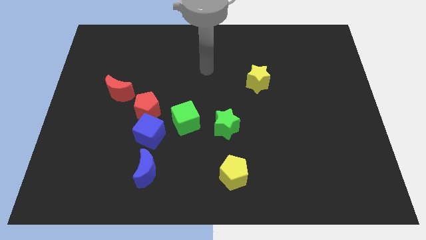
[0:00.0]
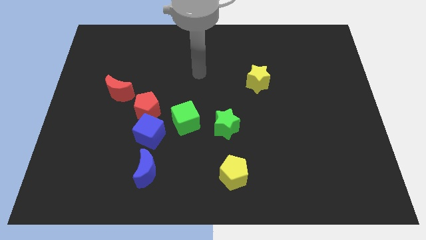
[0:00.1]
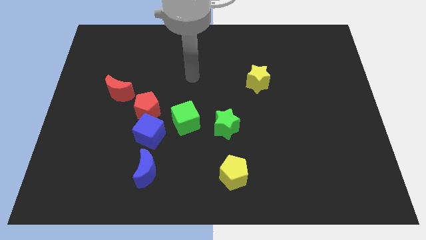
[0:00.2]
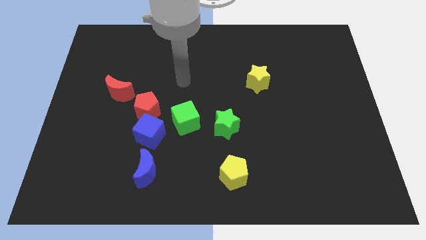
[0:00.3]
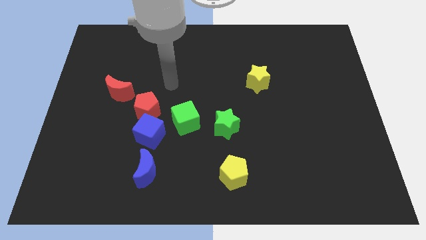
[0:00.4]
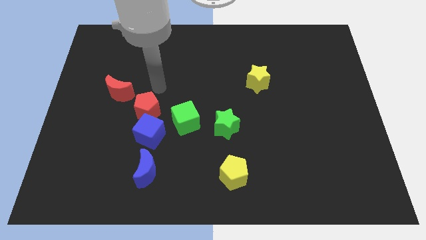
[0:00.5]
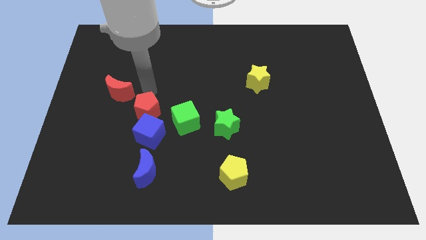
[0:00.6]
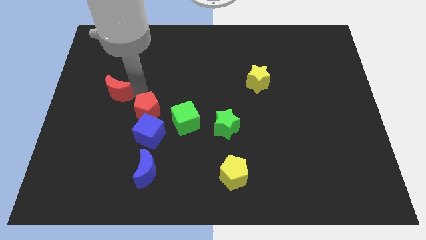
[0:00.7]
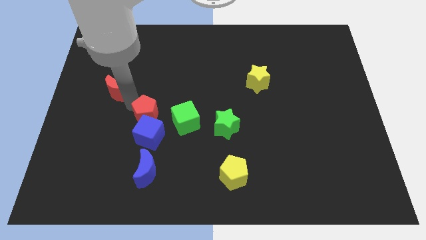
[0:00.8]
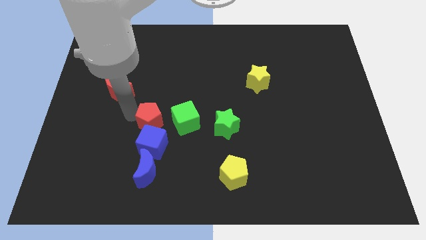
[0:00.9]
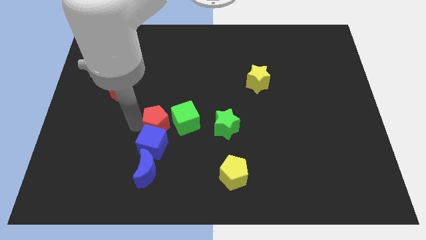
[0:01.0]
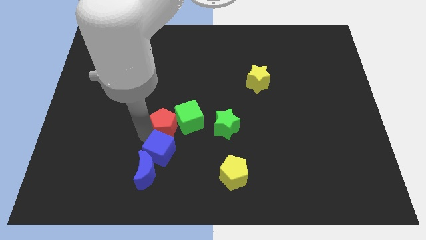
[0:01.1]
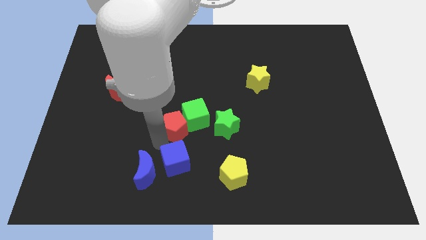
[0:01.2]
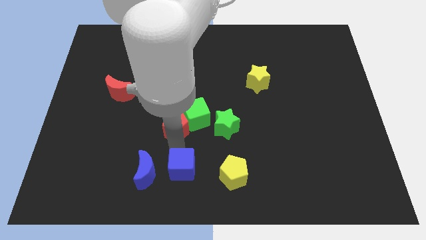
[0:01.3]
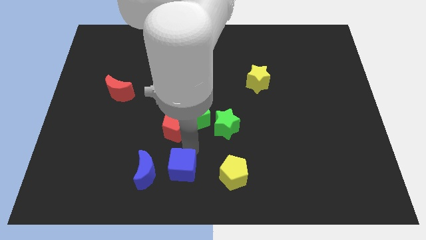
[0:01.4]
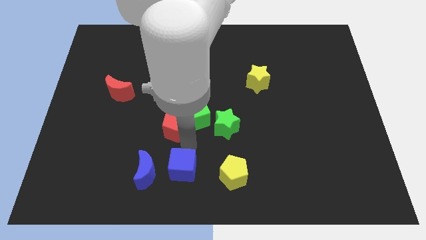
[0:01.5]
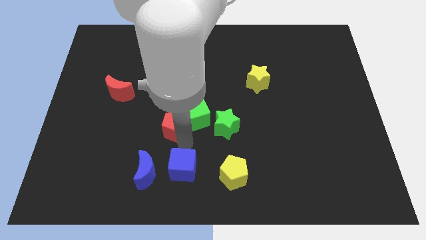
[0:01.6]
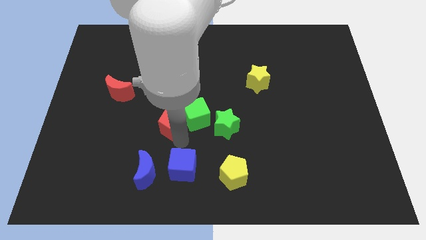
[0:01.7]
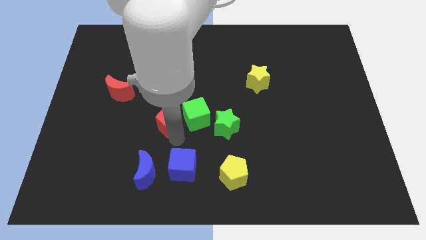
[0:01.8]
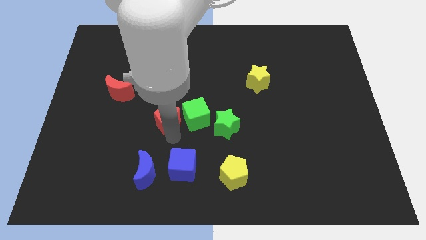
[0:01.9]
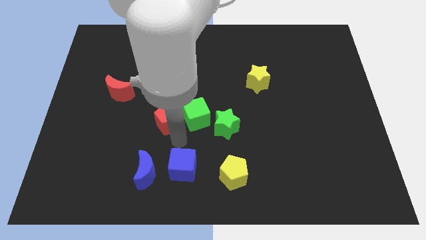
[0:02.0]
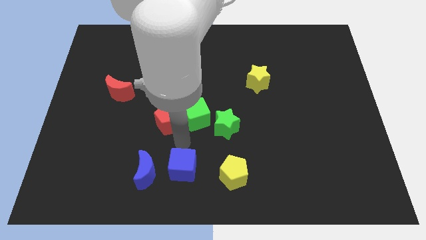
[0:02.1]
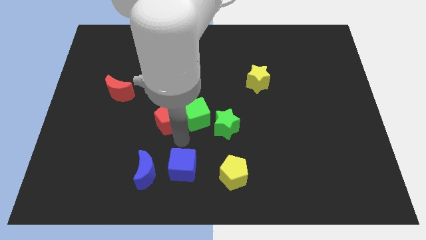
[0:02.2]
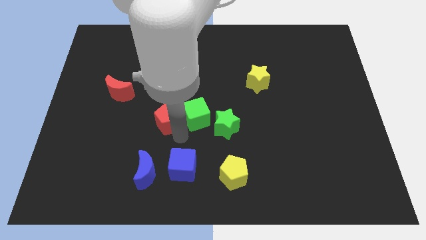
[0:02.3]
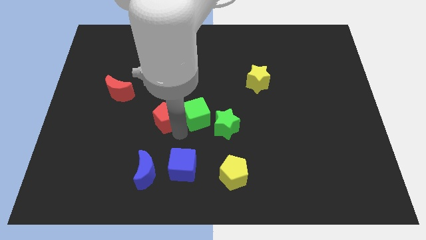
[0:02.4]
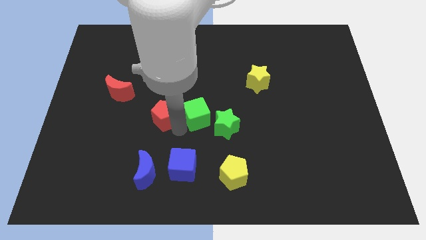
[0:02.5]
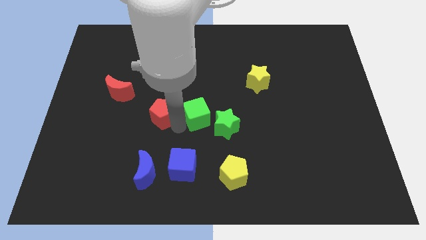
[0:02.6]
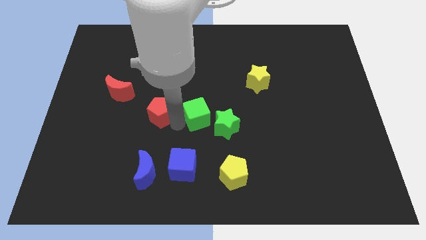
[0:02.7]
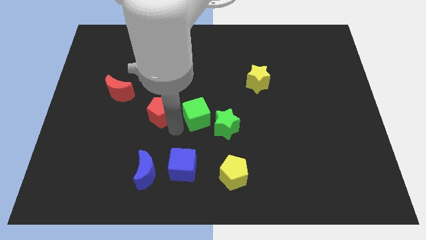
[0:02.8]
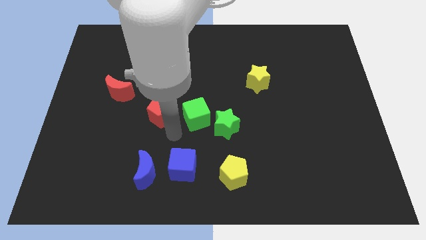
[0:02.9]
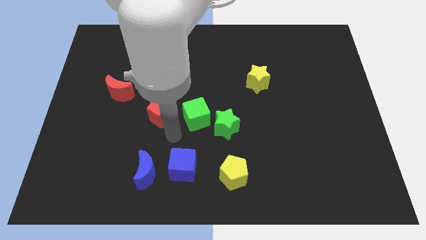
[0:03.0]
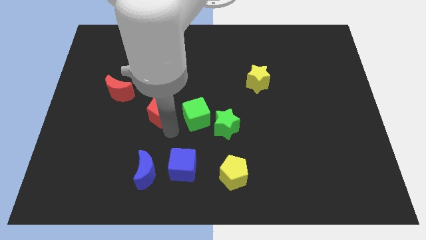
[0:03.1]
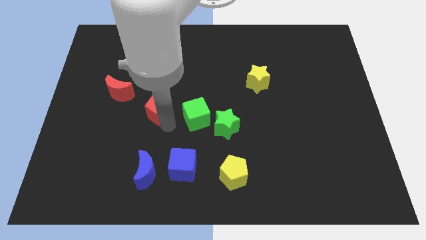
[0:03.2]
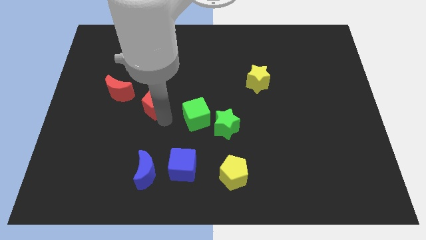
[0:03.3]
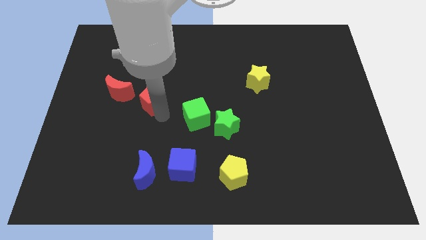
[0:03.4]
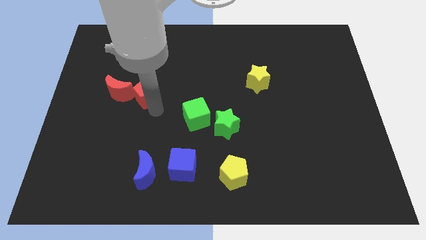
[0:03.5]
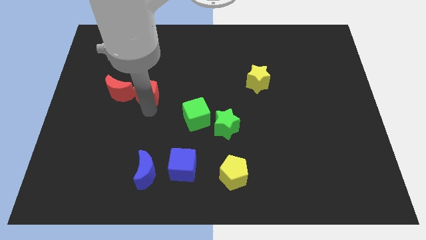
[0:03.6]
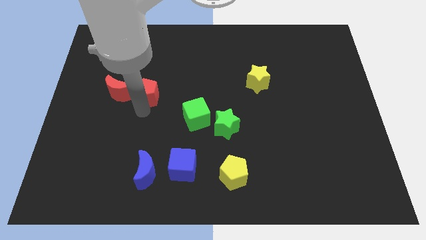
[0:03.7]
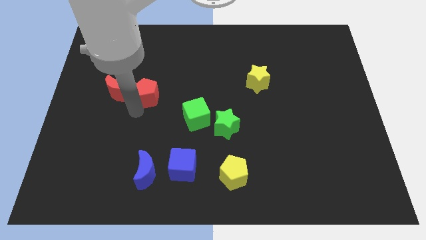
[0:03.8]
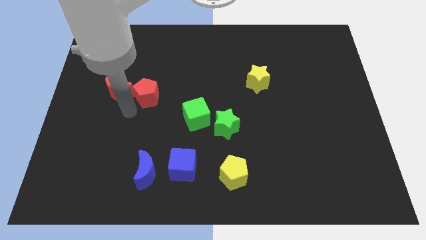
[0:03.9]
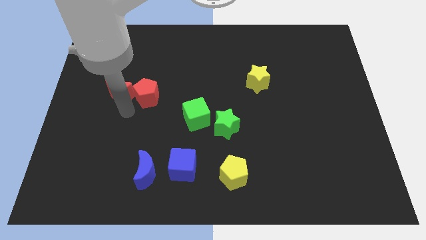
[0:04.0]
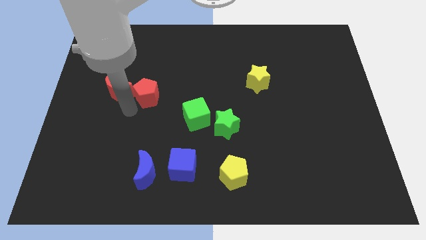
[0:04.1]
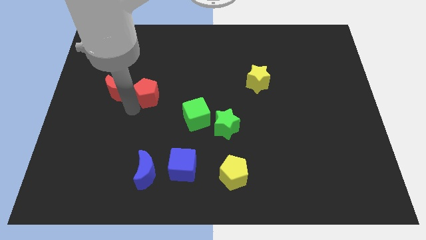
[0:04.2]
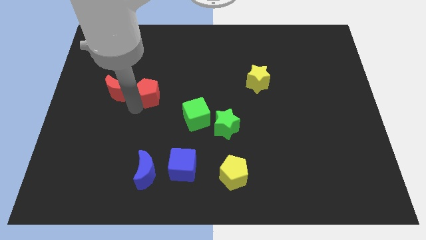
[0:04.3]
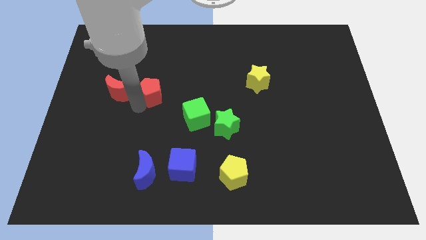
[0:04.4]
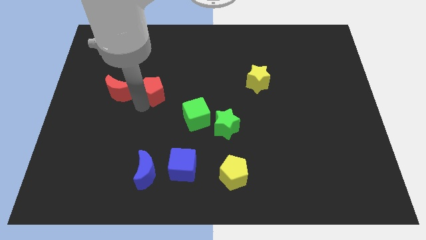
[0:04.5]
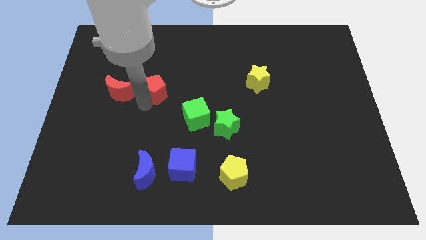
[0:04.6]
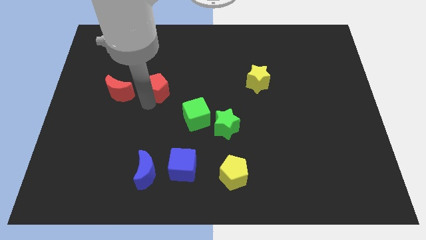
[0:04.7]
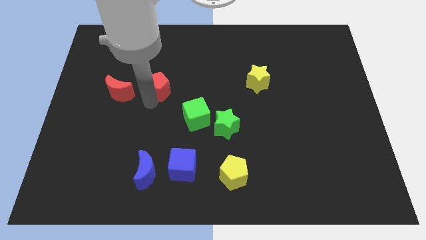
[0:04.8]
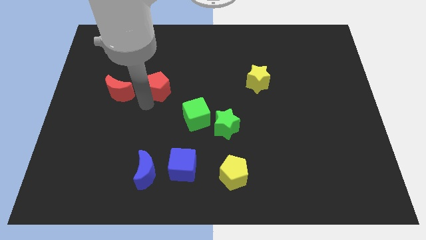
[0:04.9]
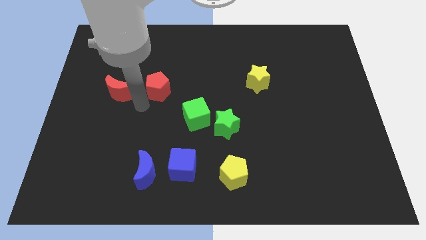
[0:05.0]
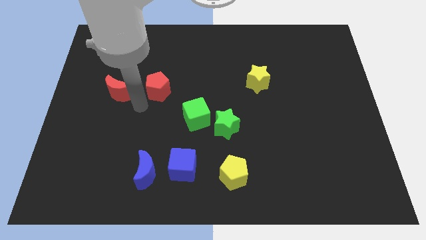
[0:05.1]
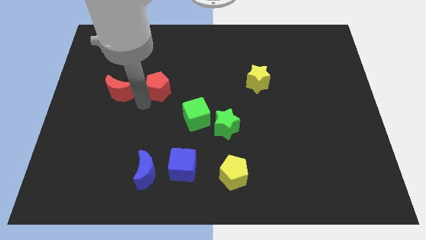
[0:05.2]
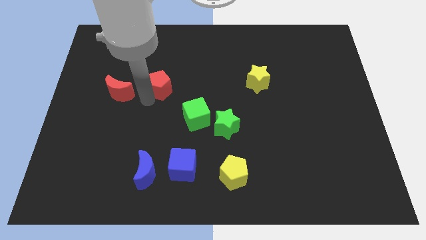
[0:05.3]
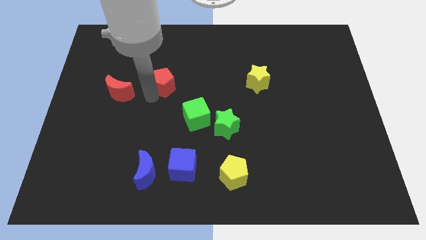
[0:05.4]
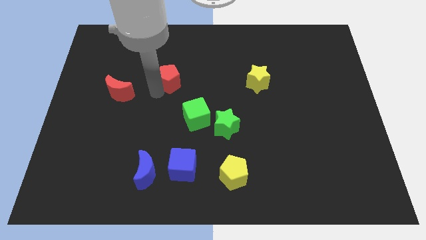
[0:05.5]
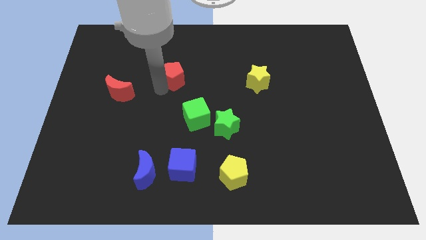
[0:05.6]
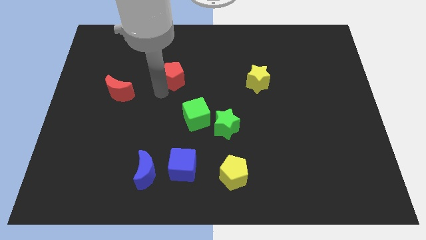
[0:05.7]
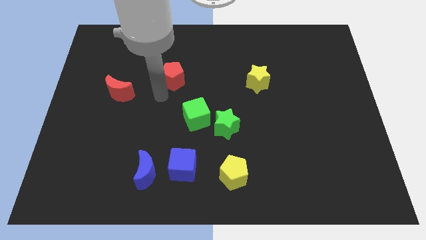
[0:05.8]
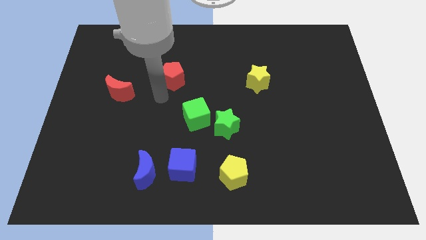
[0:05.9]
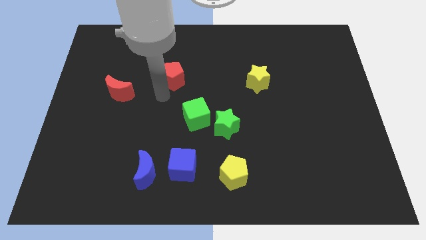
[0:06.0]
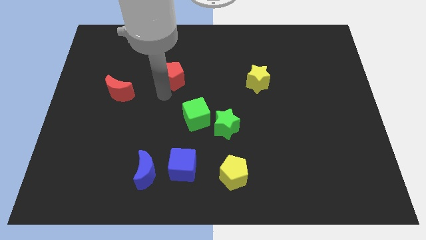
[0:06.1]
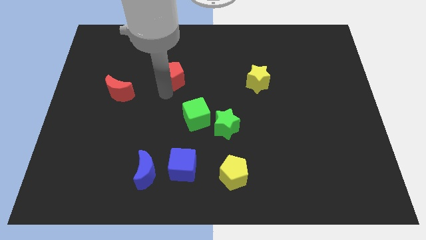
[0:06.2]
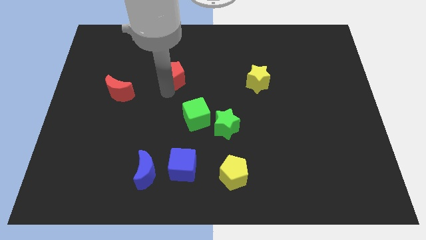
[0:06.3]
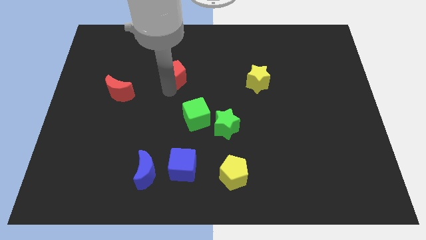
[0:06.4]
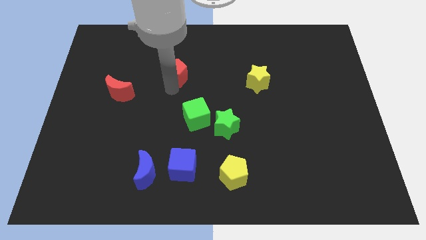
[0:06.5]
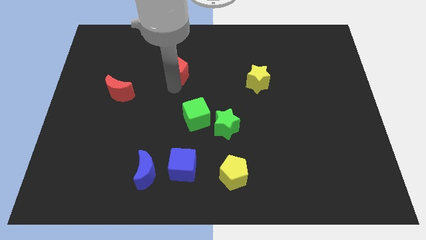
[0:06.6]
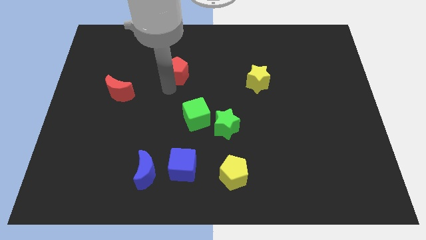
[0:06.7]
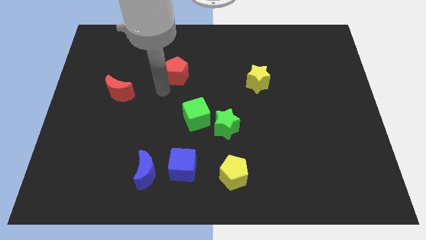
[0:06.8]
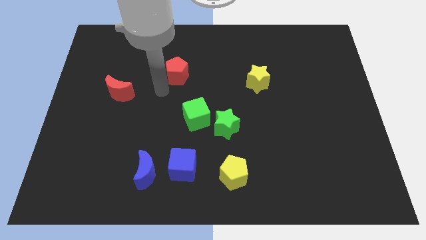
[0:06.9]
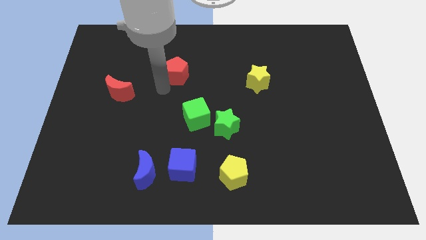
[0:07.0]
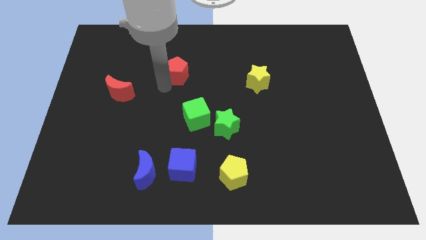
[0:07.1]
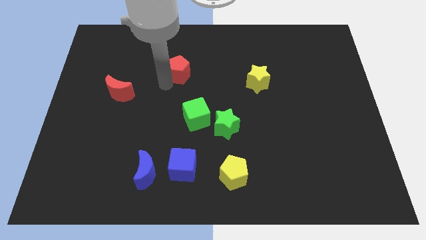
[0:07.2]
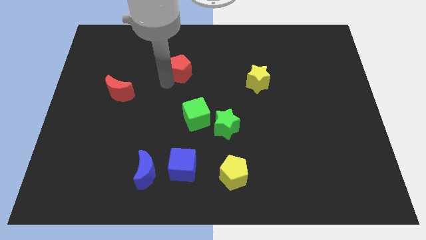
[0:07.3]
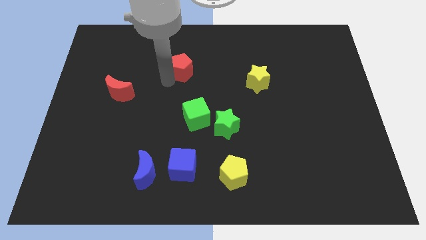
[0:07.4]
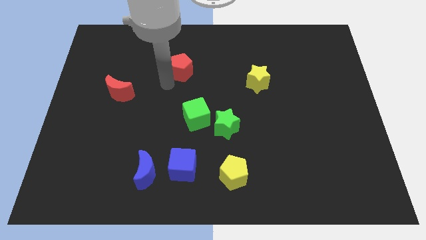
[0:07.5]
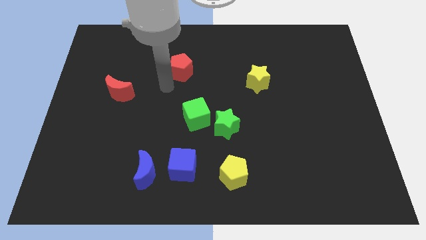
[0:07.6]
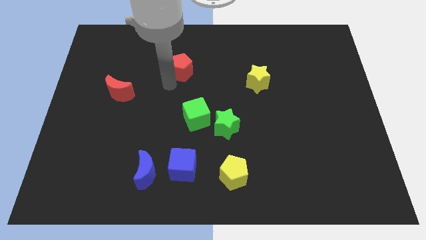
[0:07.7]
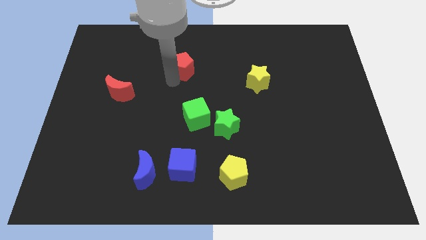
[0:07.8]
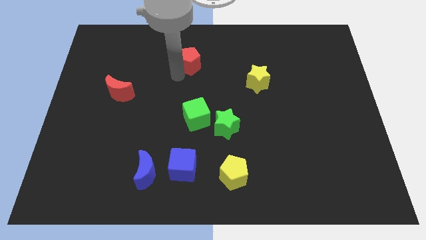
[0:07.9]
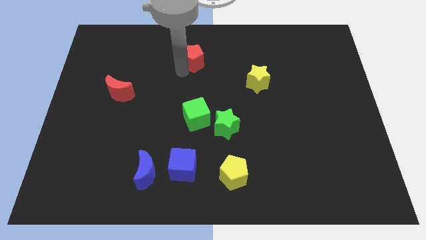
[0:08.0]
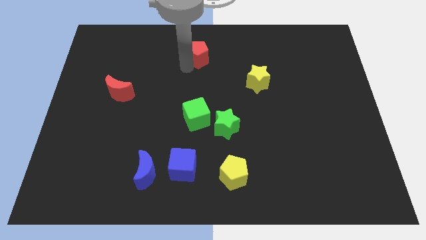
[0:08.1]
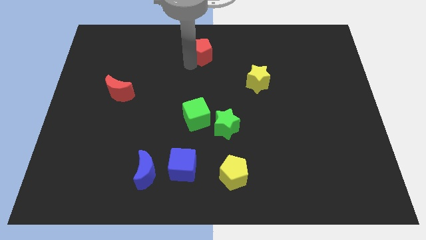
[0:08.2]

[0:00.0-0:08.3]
push the red pentagon to the top side
